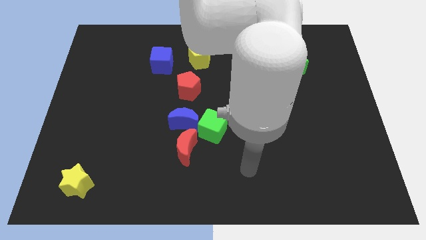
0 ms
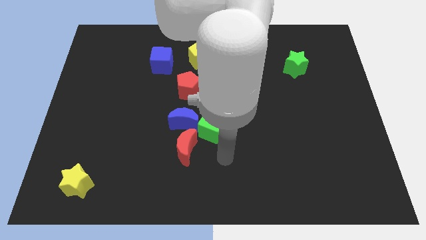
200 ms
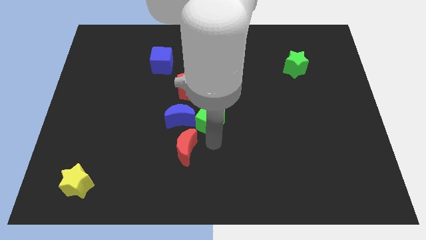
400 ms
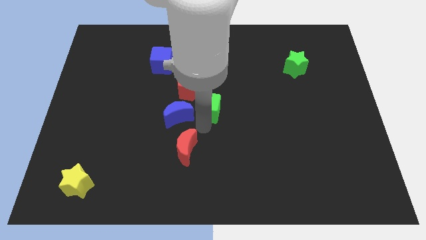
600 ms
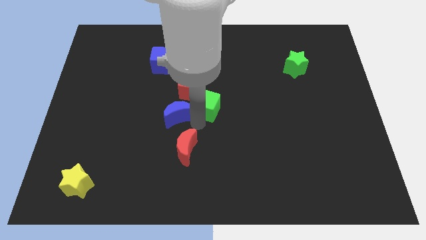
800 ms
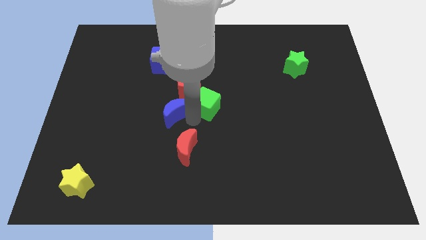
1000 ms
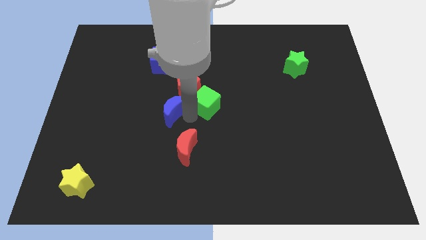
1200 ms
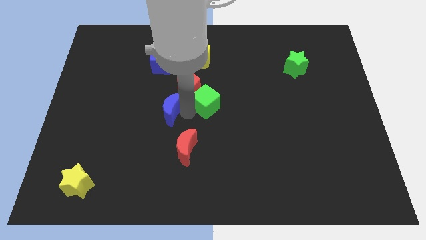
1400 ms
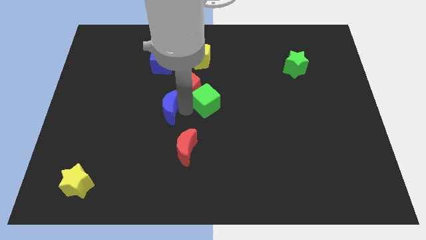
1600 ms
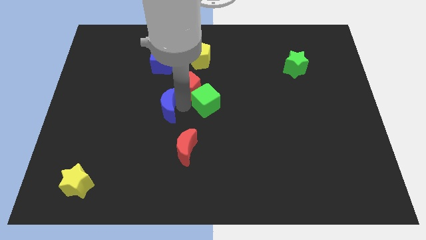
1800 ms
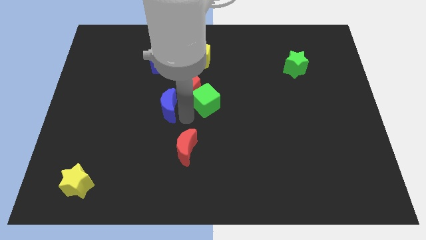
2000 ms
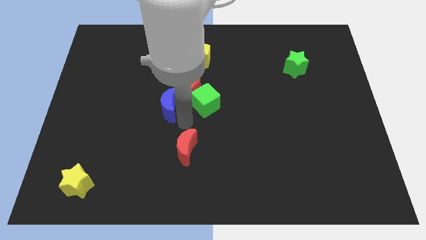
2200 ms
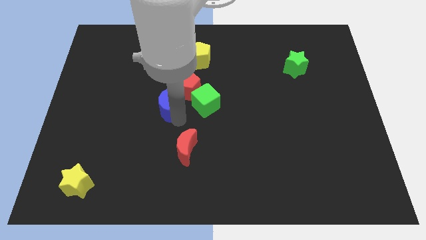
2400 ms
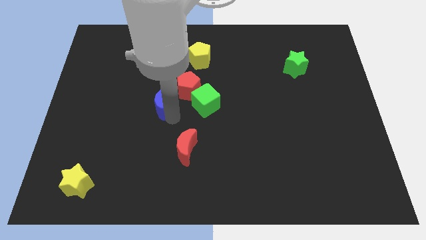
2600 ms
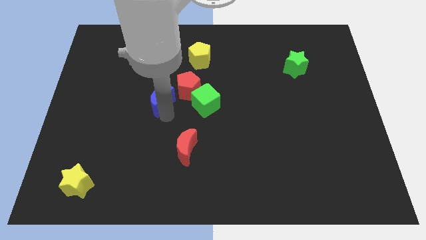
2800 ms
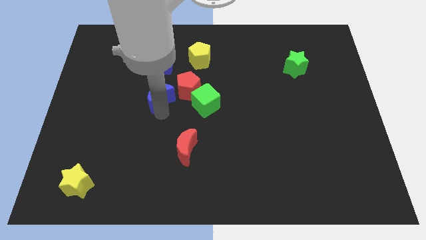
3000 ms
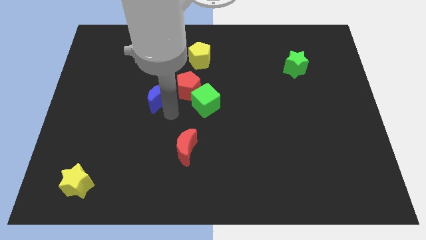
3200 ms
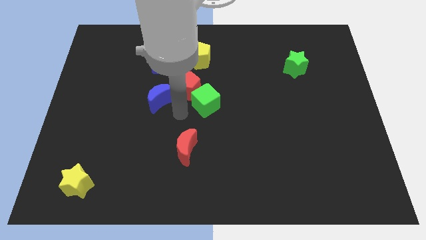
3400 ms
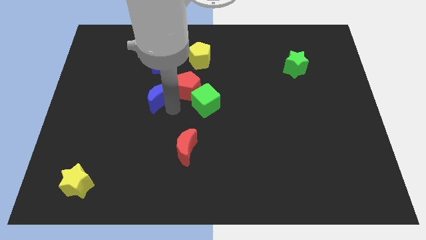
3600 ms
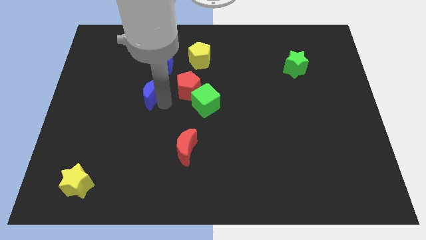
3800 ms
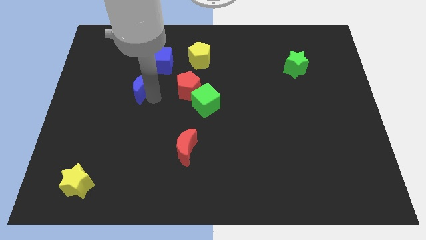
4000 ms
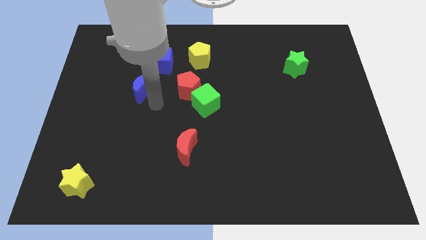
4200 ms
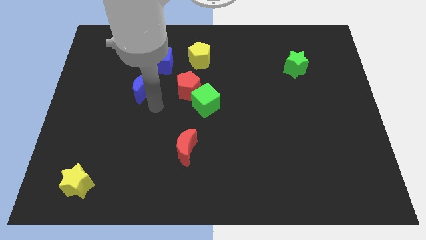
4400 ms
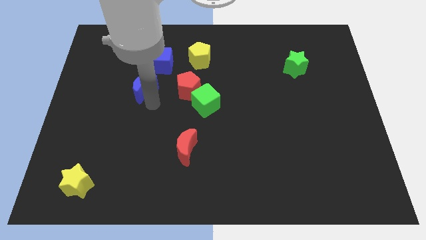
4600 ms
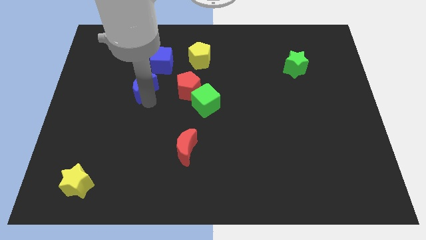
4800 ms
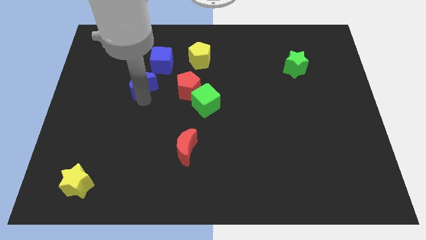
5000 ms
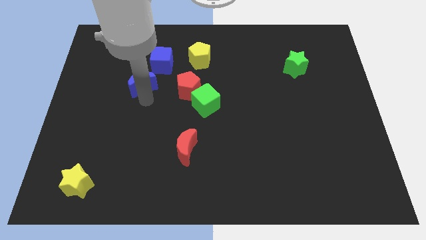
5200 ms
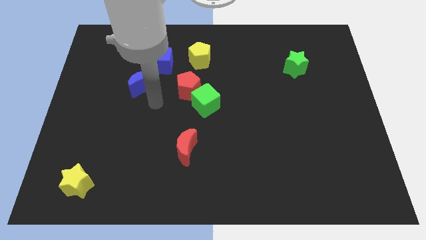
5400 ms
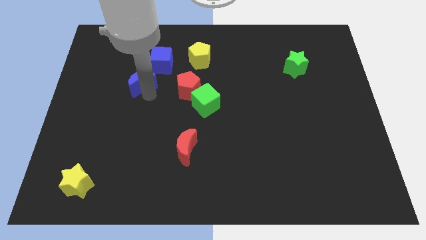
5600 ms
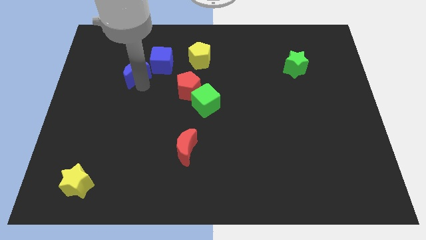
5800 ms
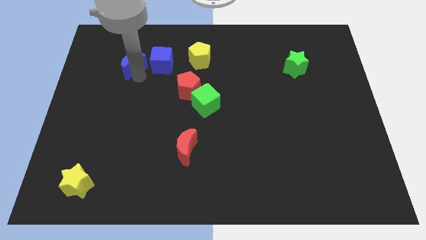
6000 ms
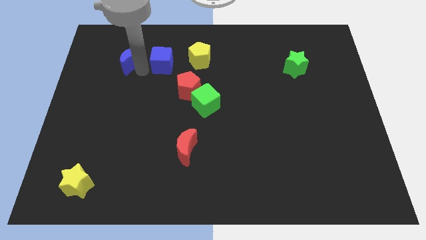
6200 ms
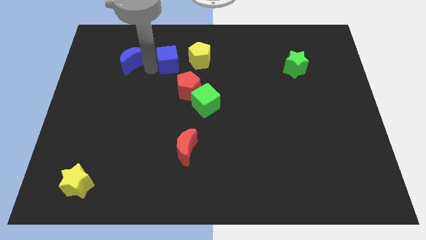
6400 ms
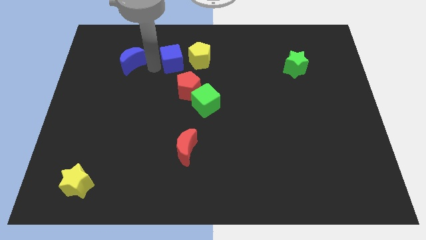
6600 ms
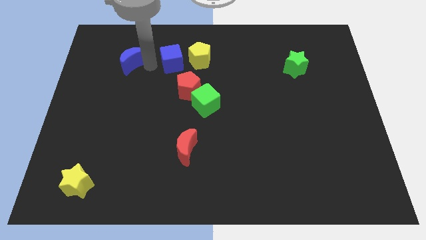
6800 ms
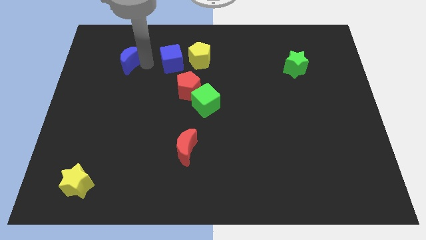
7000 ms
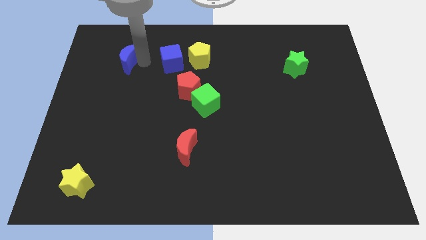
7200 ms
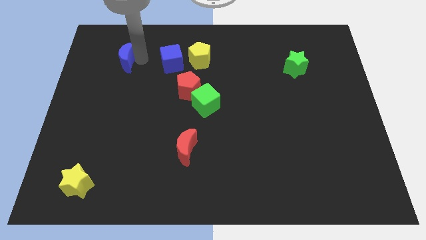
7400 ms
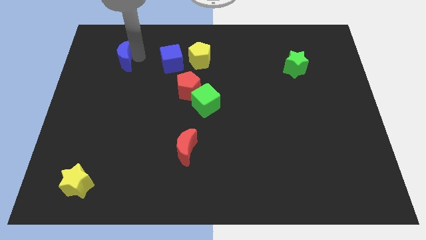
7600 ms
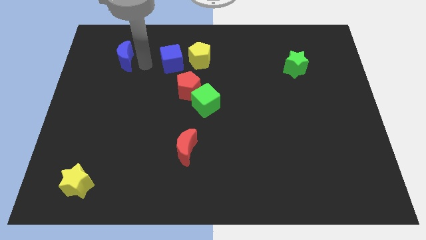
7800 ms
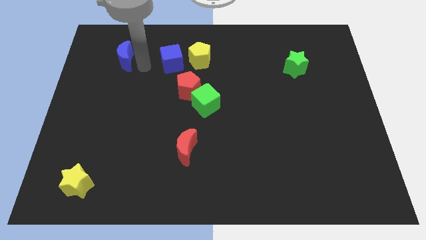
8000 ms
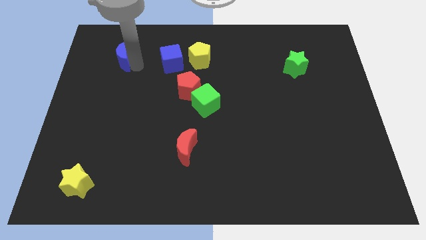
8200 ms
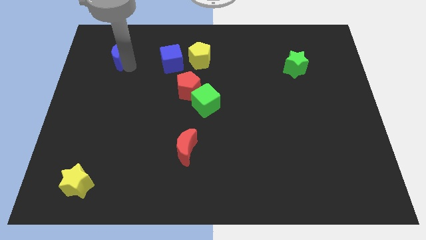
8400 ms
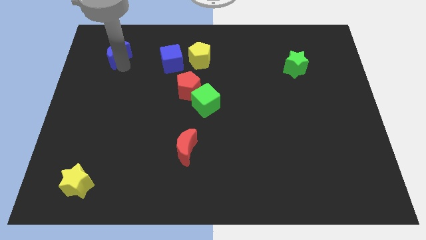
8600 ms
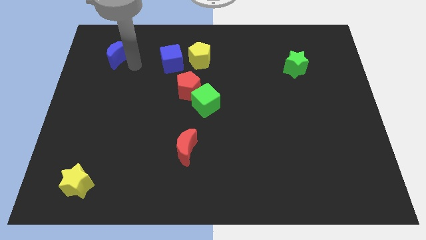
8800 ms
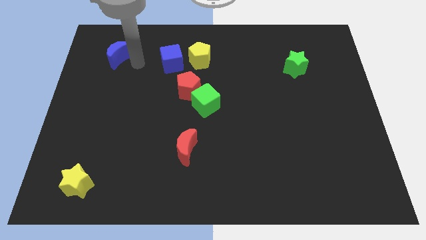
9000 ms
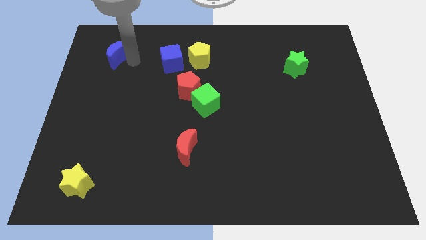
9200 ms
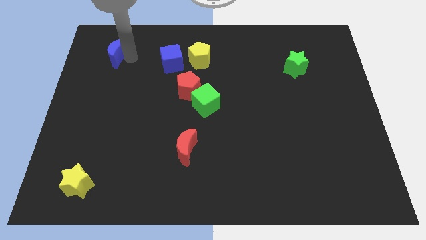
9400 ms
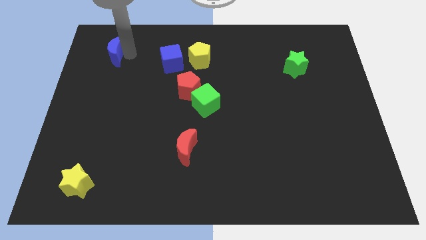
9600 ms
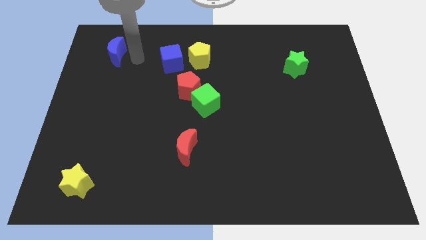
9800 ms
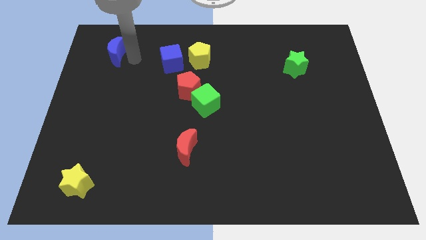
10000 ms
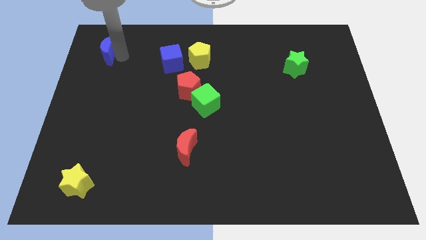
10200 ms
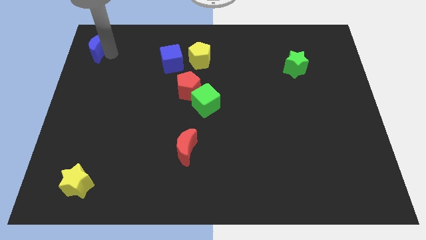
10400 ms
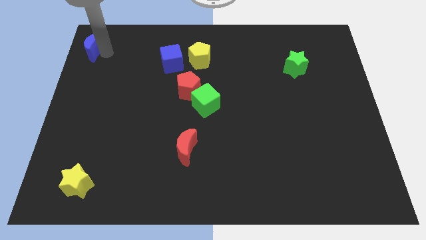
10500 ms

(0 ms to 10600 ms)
push the blue moon to the upper left corner

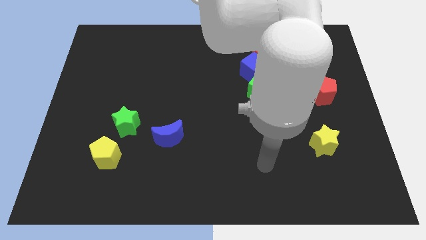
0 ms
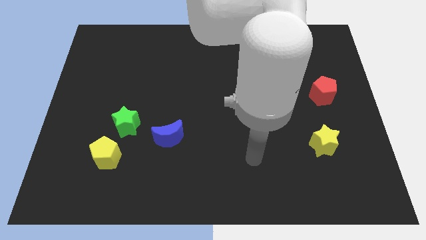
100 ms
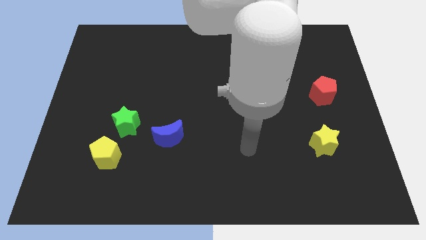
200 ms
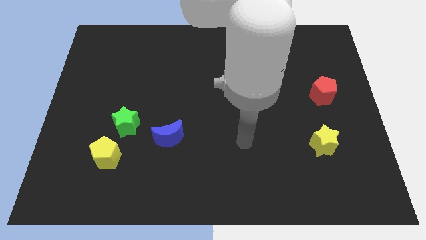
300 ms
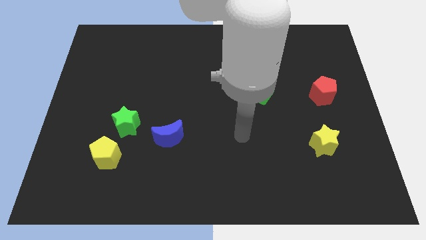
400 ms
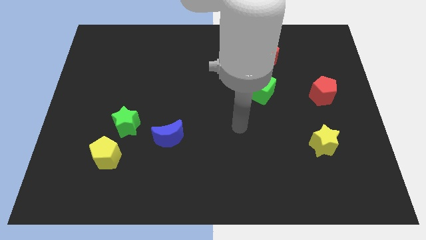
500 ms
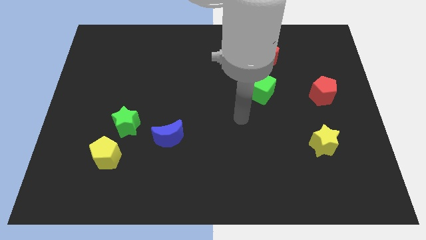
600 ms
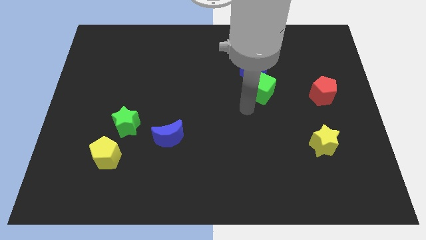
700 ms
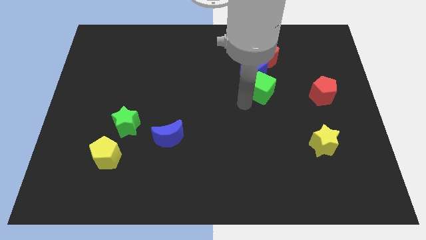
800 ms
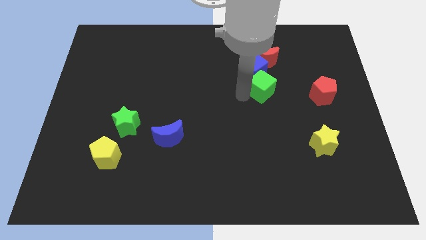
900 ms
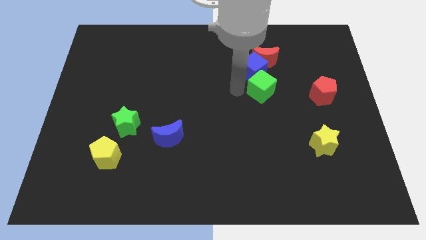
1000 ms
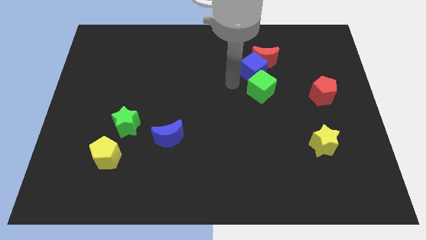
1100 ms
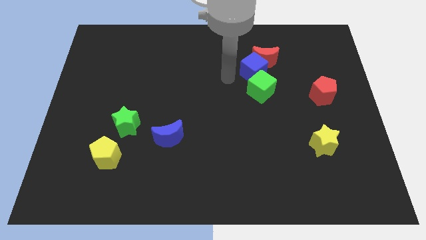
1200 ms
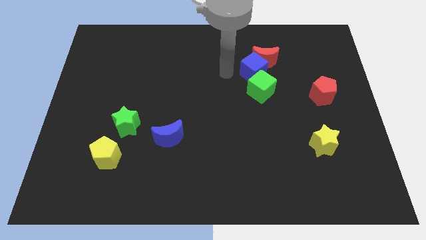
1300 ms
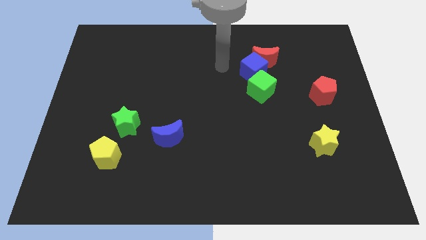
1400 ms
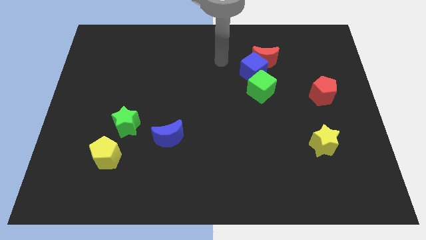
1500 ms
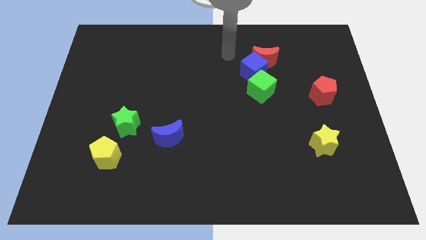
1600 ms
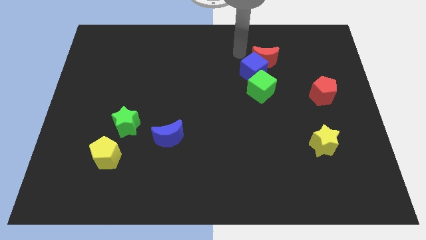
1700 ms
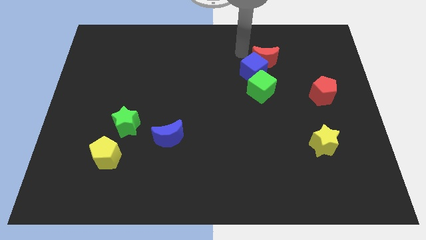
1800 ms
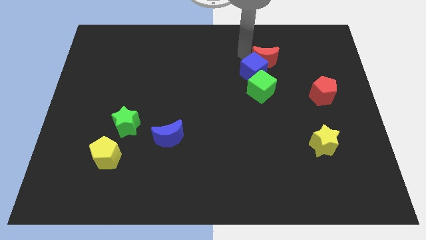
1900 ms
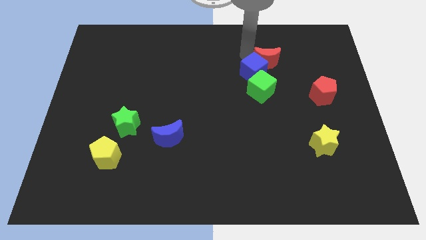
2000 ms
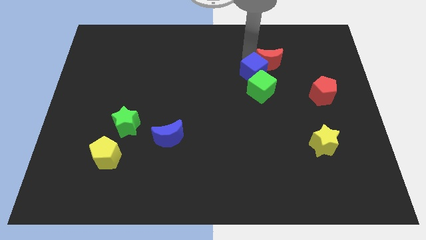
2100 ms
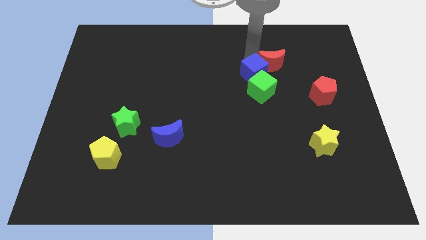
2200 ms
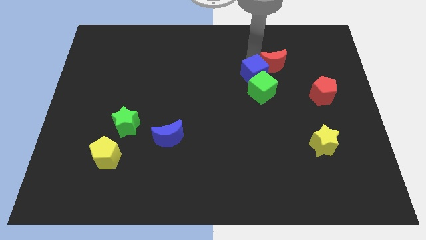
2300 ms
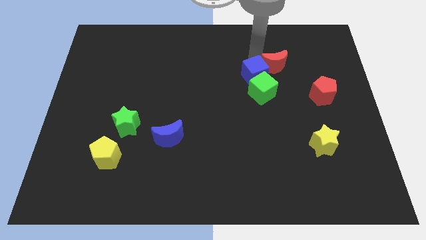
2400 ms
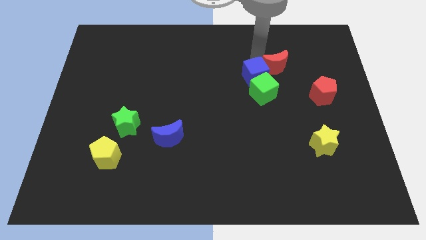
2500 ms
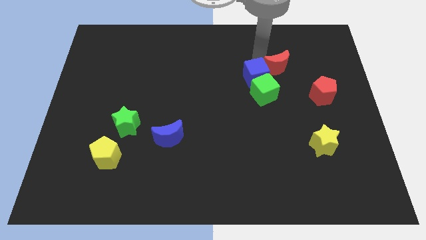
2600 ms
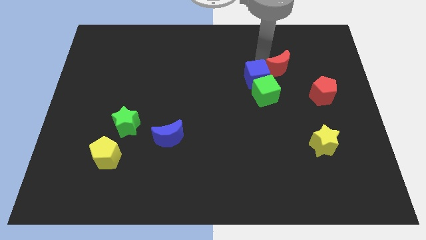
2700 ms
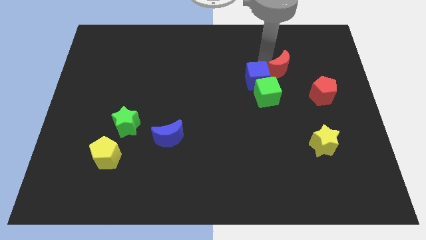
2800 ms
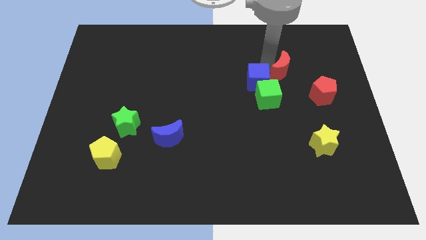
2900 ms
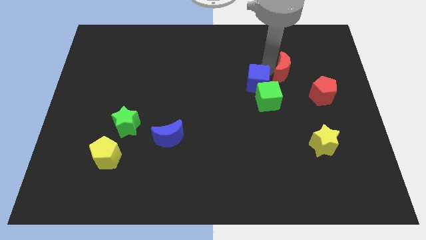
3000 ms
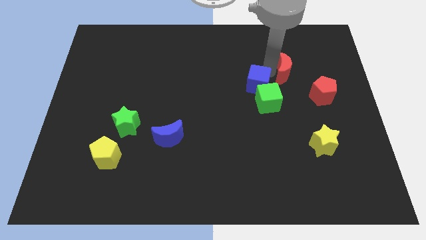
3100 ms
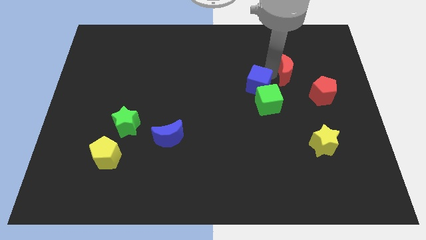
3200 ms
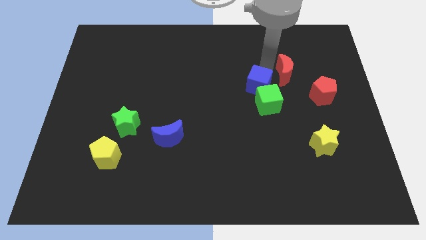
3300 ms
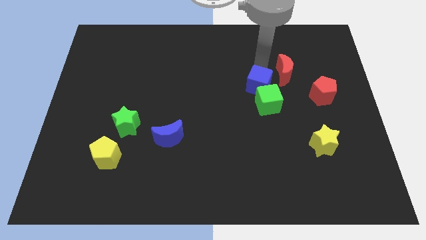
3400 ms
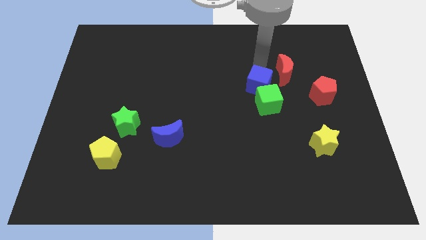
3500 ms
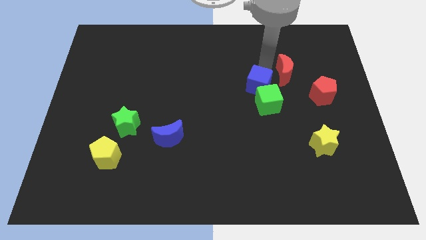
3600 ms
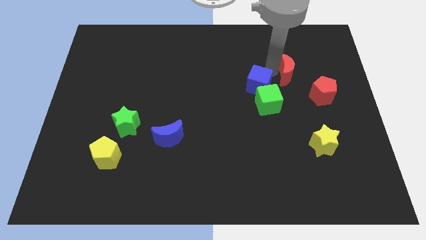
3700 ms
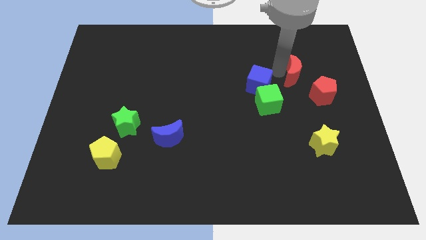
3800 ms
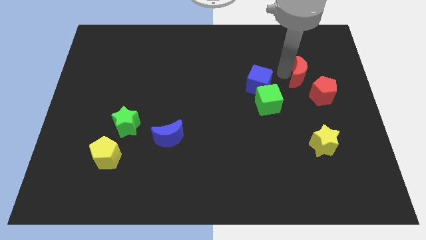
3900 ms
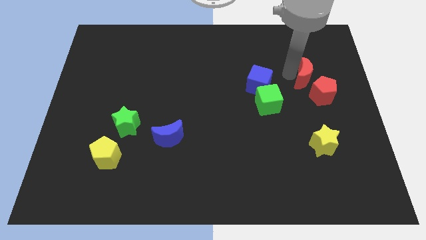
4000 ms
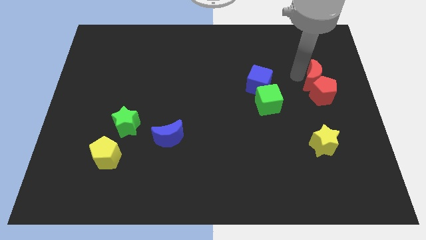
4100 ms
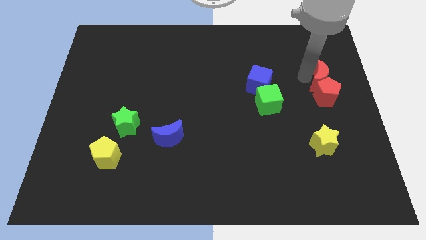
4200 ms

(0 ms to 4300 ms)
put the red moon to the right side
